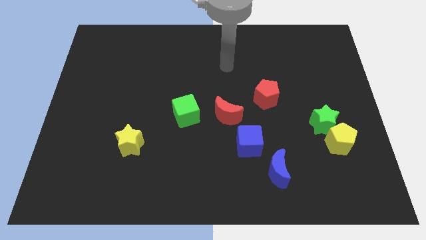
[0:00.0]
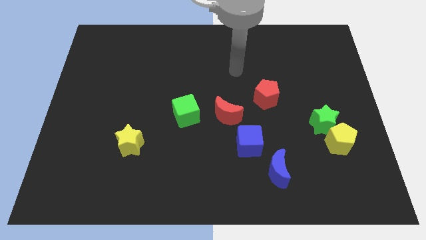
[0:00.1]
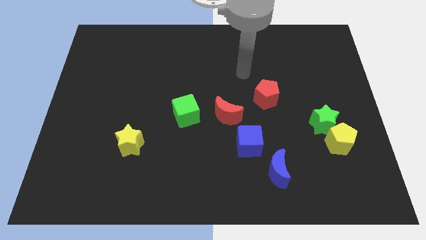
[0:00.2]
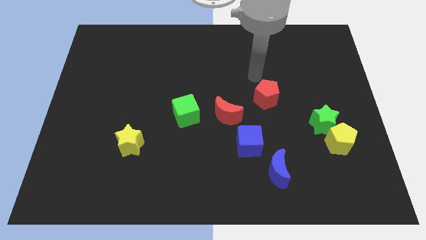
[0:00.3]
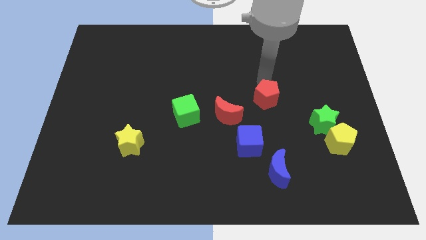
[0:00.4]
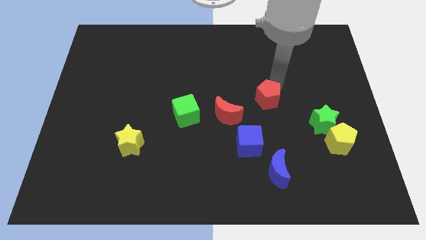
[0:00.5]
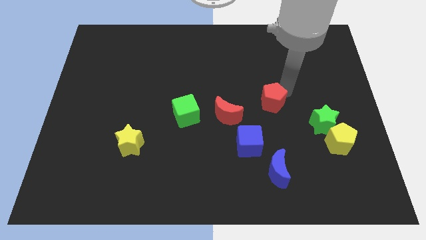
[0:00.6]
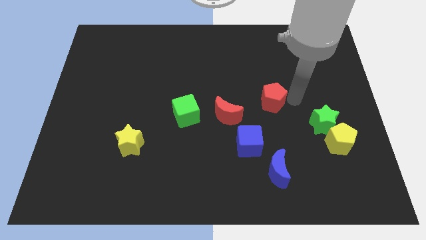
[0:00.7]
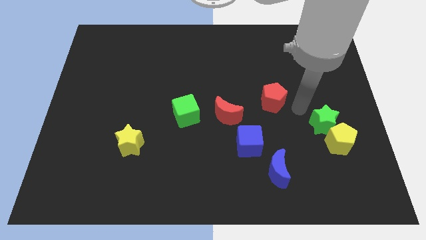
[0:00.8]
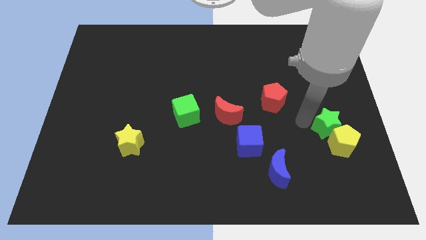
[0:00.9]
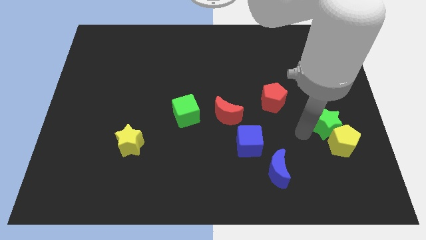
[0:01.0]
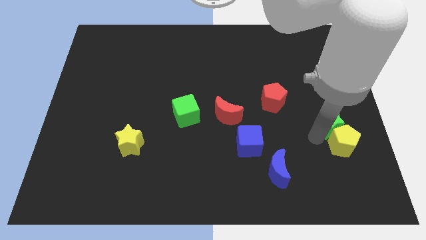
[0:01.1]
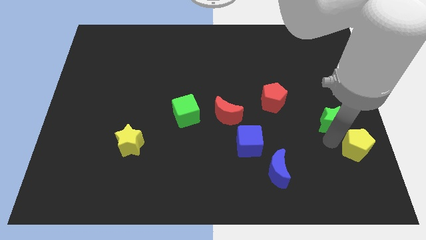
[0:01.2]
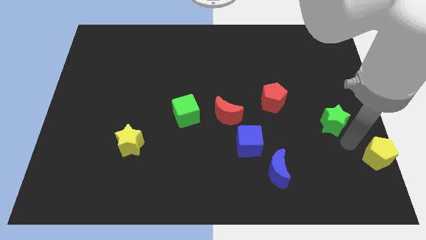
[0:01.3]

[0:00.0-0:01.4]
separate the green star from the yellow pentagon

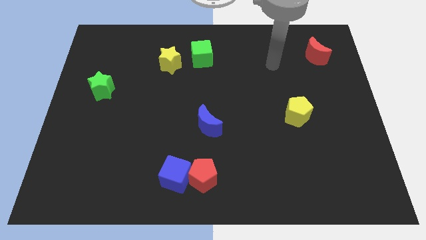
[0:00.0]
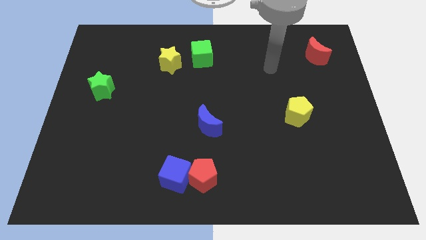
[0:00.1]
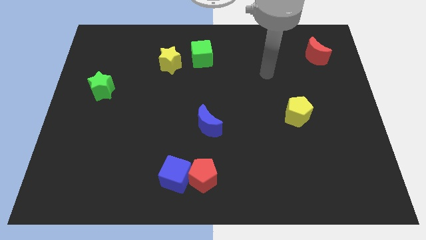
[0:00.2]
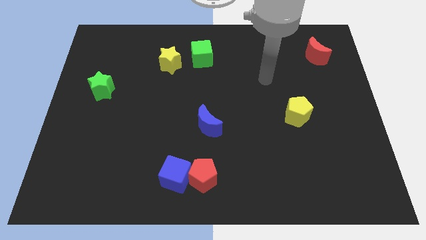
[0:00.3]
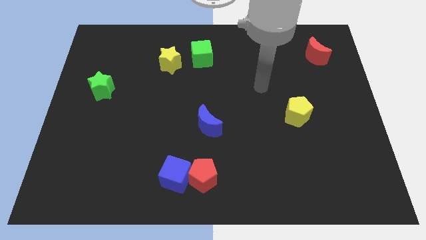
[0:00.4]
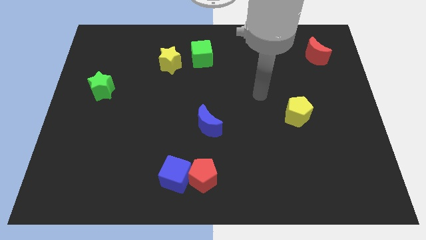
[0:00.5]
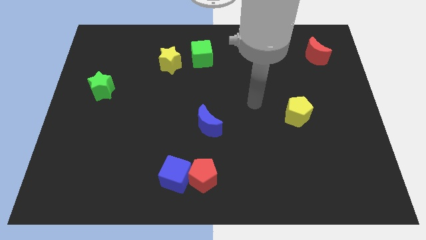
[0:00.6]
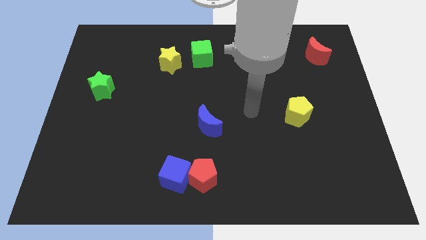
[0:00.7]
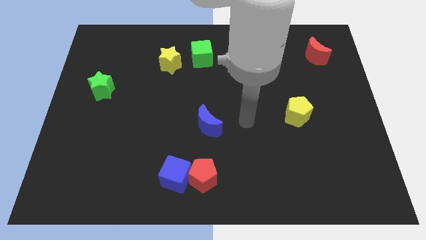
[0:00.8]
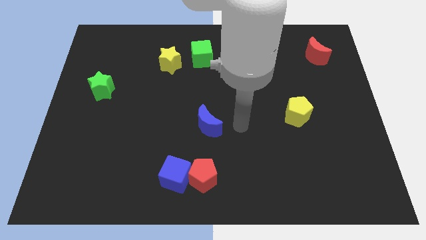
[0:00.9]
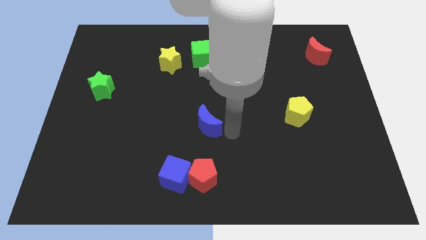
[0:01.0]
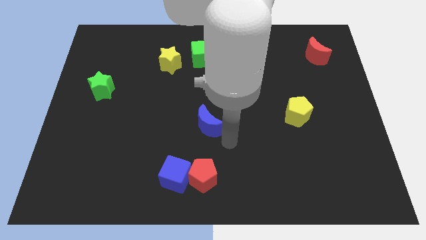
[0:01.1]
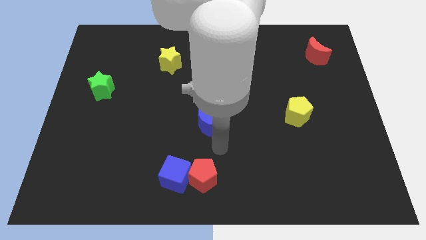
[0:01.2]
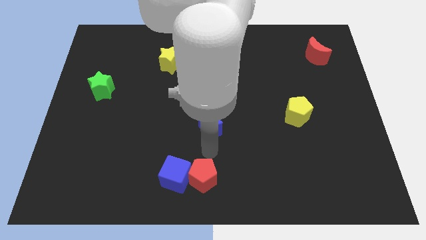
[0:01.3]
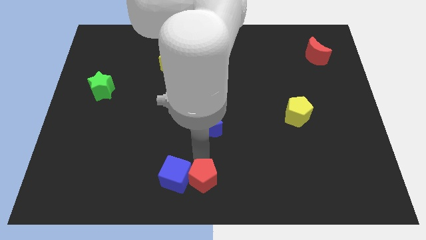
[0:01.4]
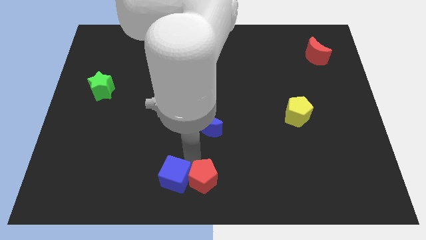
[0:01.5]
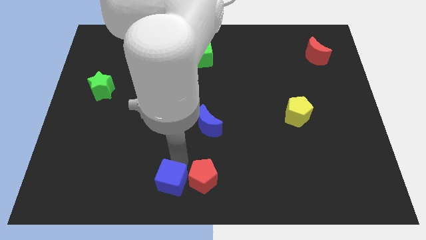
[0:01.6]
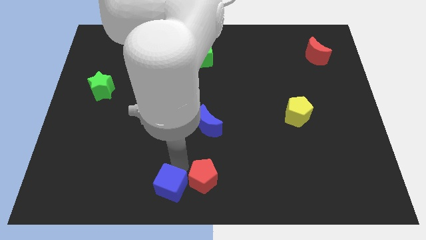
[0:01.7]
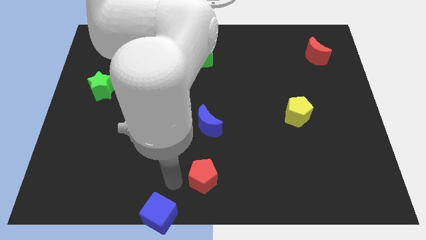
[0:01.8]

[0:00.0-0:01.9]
move the red pentagon away from the blue cube

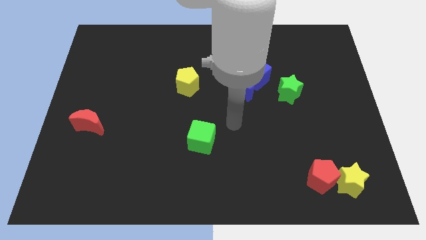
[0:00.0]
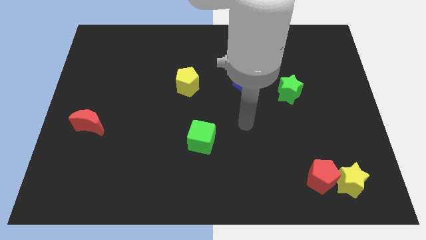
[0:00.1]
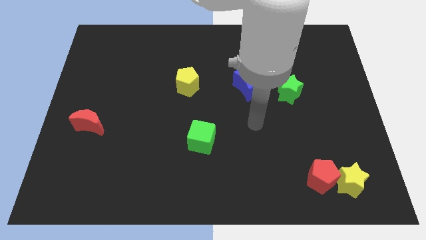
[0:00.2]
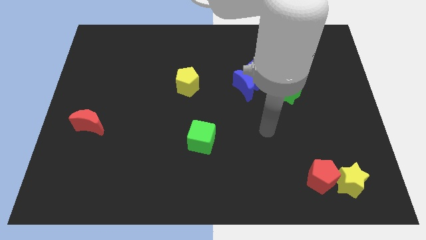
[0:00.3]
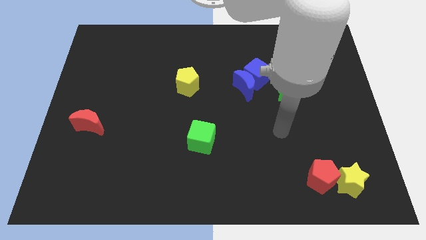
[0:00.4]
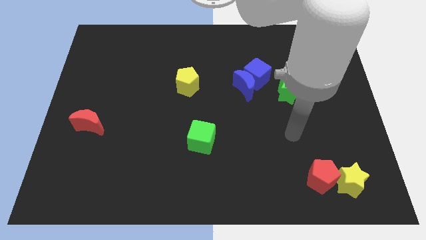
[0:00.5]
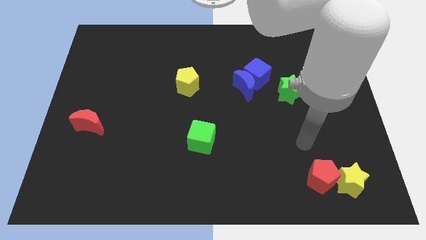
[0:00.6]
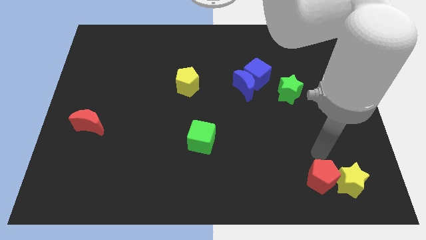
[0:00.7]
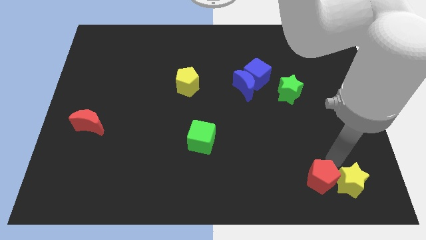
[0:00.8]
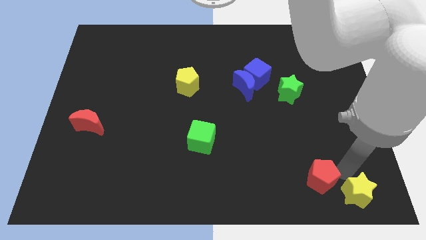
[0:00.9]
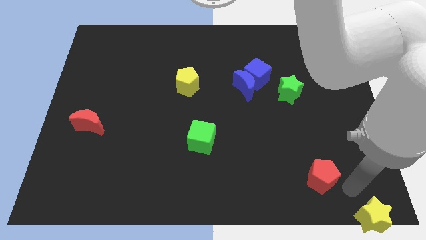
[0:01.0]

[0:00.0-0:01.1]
pull the red pentagon apart from the yellow star

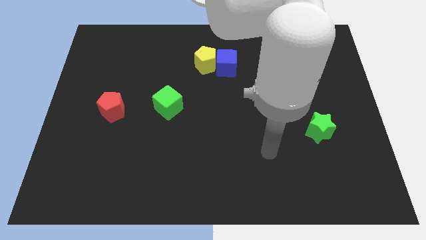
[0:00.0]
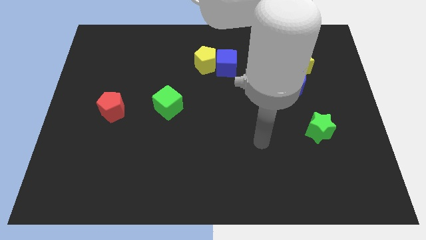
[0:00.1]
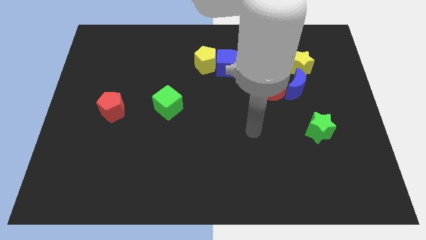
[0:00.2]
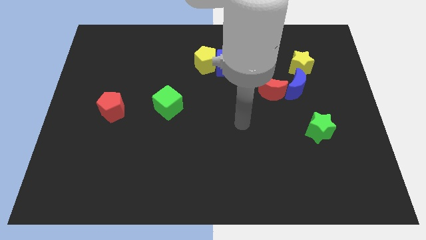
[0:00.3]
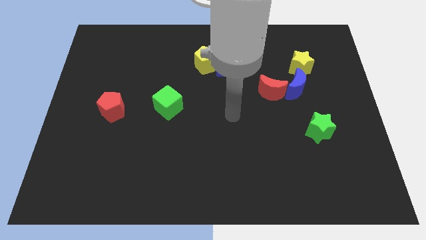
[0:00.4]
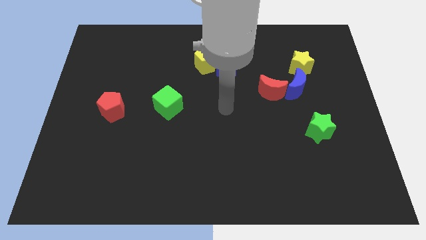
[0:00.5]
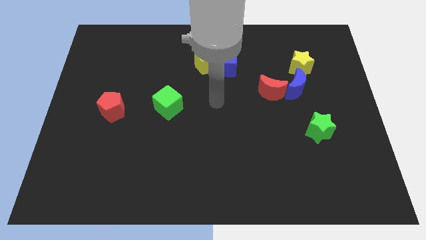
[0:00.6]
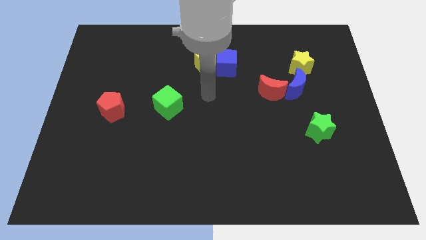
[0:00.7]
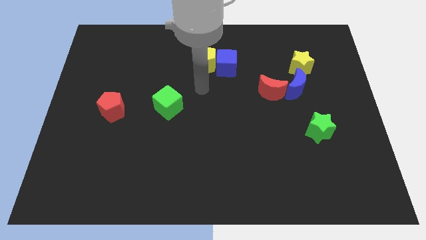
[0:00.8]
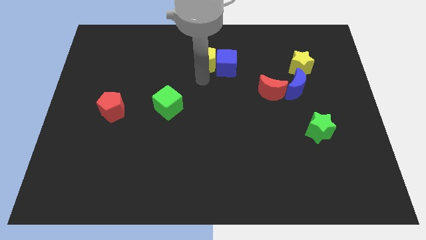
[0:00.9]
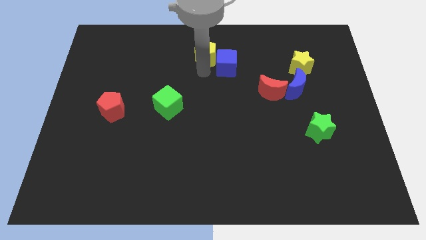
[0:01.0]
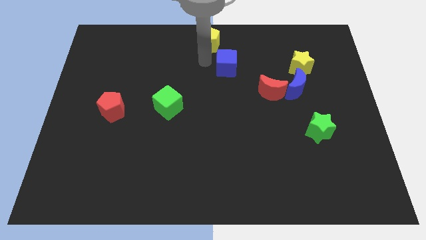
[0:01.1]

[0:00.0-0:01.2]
pull the blue cube apart from the yellow pentagon

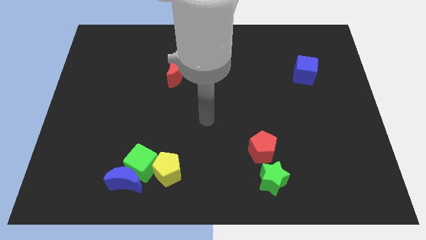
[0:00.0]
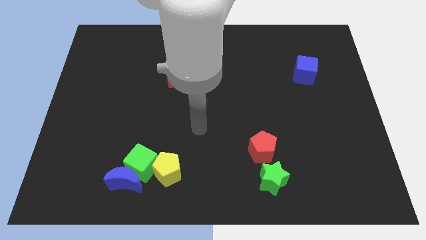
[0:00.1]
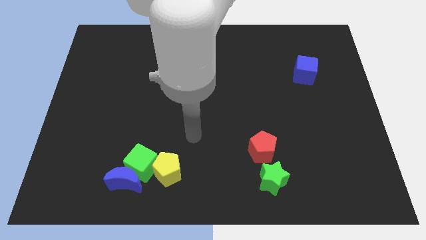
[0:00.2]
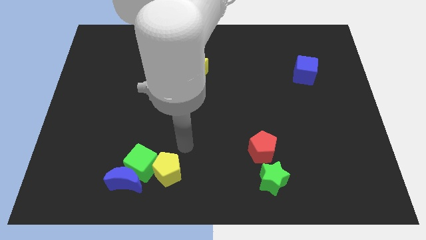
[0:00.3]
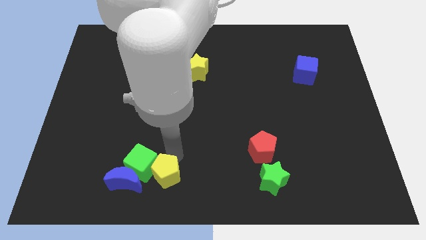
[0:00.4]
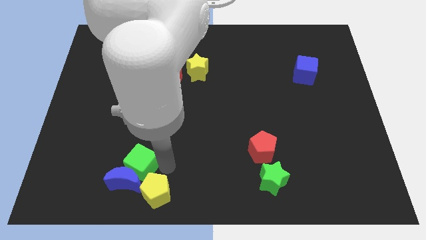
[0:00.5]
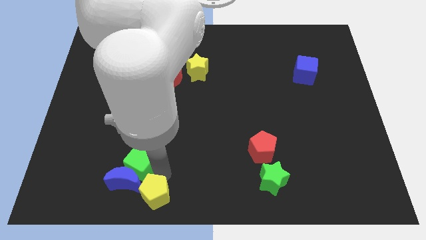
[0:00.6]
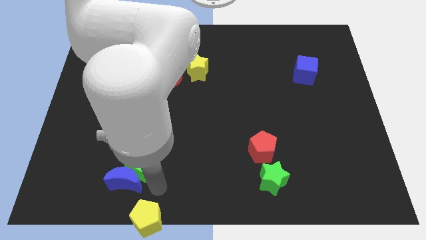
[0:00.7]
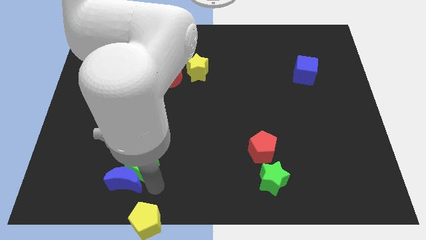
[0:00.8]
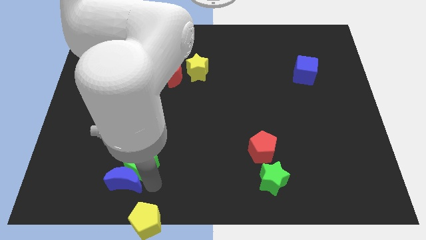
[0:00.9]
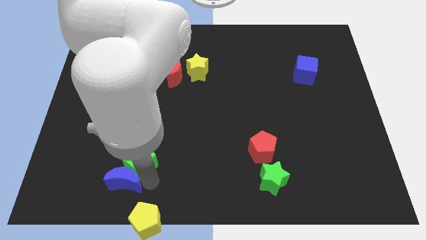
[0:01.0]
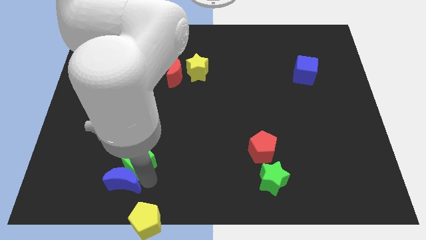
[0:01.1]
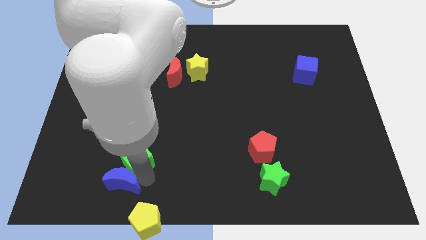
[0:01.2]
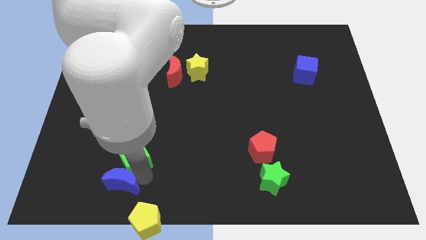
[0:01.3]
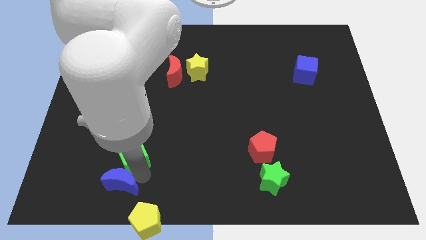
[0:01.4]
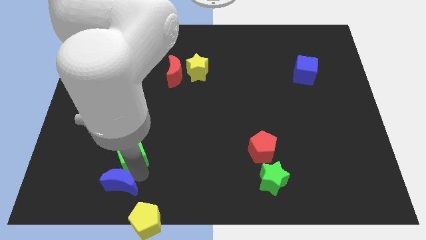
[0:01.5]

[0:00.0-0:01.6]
move the green cube away from the blue moon and yellow pentagon

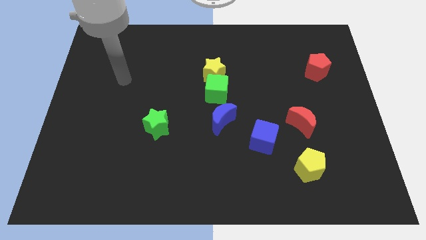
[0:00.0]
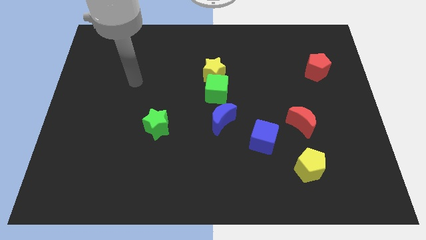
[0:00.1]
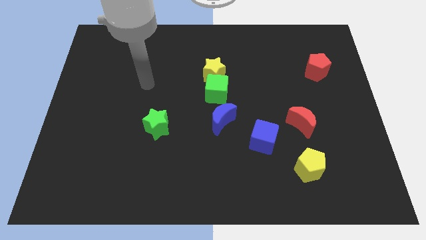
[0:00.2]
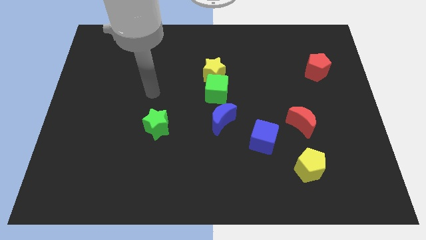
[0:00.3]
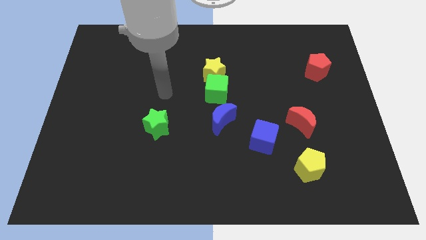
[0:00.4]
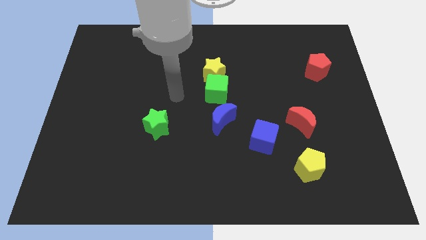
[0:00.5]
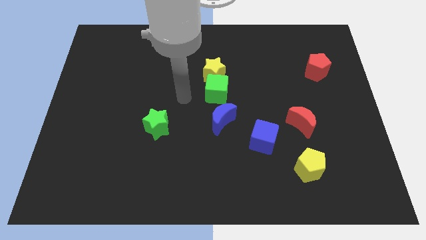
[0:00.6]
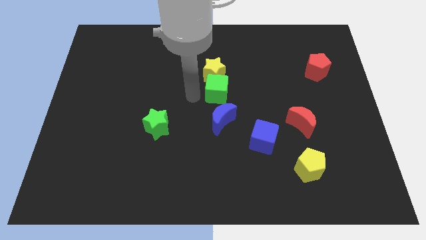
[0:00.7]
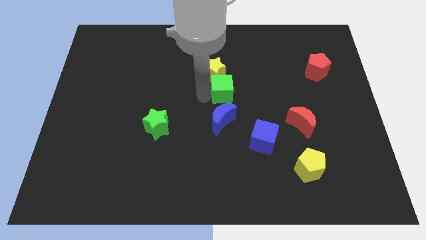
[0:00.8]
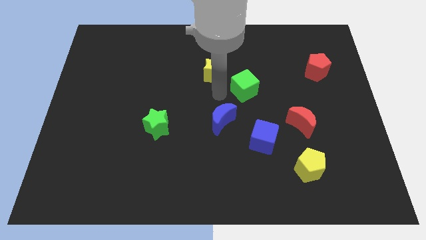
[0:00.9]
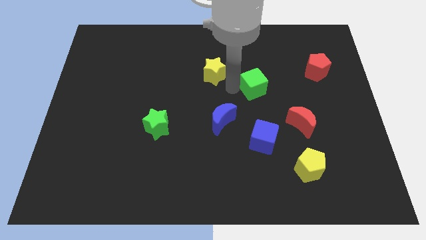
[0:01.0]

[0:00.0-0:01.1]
separate the yellow star from the green cube

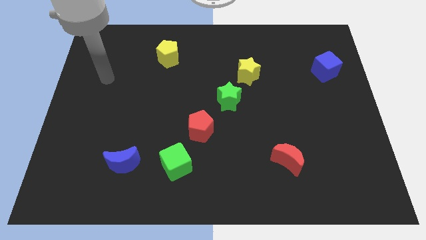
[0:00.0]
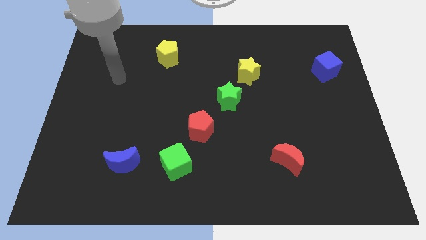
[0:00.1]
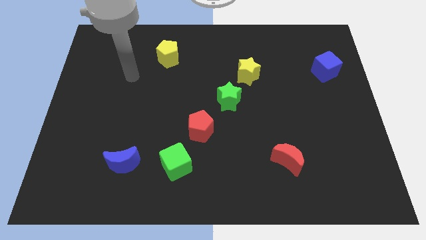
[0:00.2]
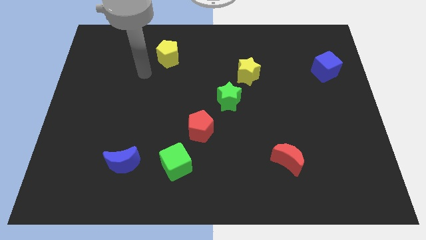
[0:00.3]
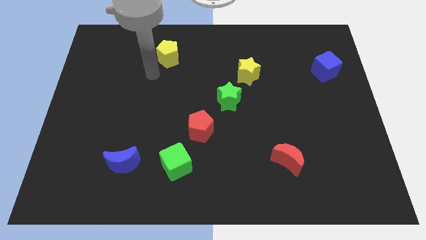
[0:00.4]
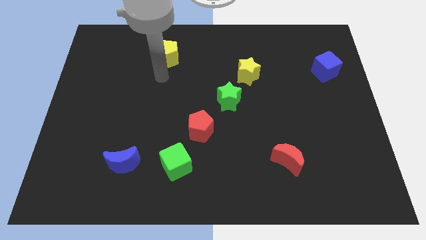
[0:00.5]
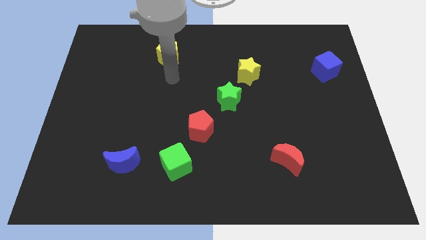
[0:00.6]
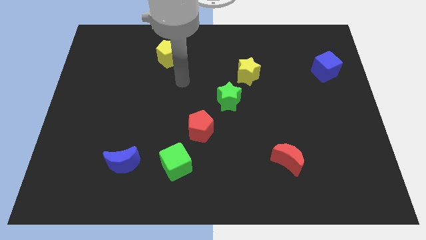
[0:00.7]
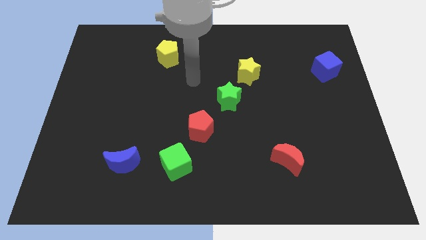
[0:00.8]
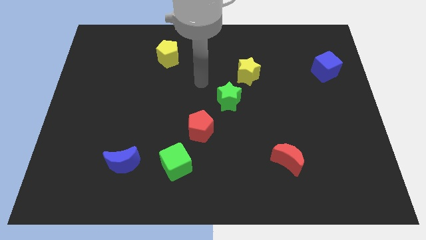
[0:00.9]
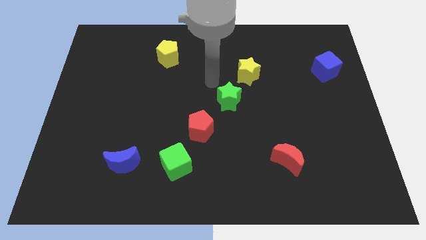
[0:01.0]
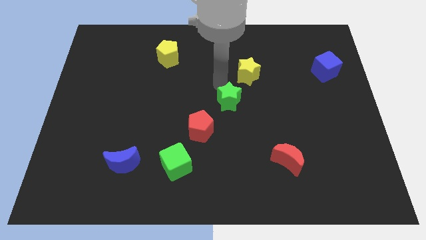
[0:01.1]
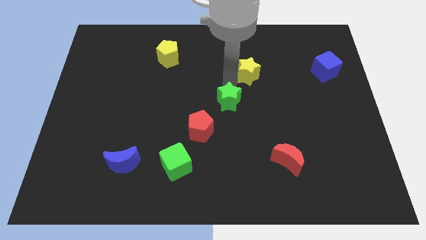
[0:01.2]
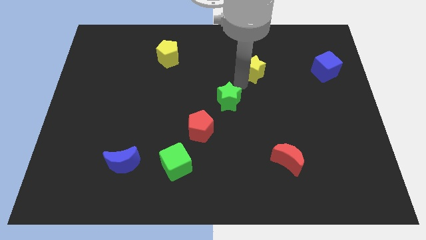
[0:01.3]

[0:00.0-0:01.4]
separate the green star from the yellow star
